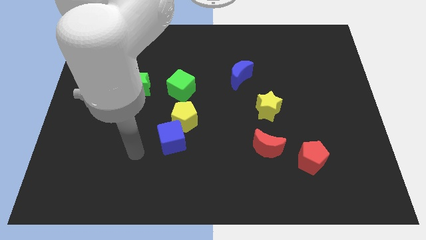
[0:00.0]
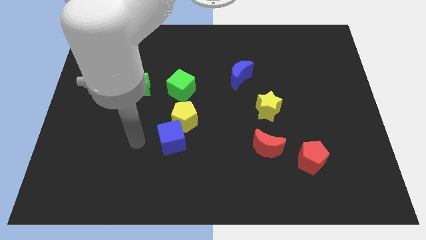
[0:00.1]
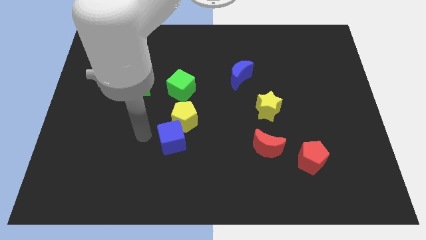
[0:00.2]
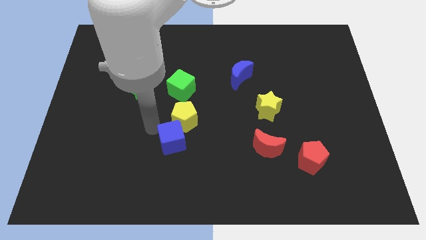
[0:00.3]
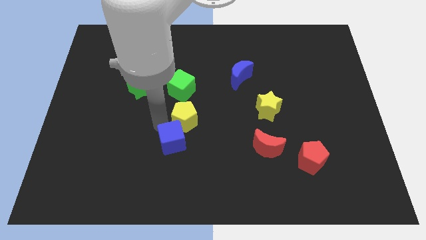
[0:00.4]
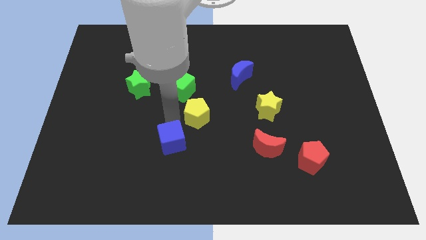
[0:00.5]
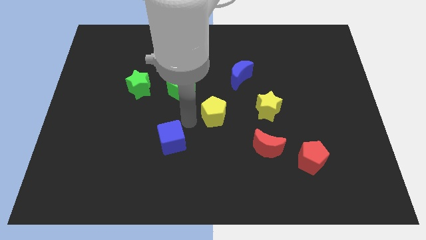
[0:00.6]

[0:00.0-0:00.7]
move the blue cube away from the yellow pentagon

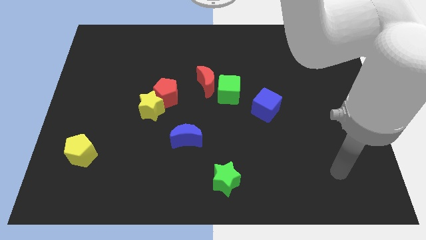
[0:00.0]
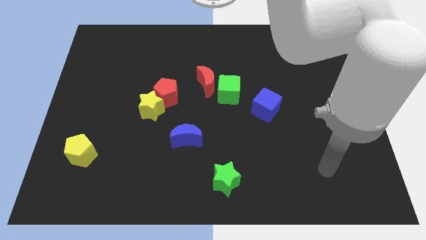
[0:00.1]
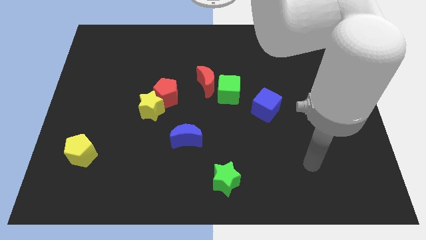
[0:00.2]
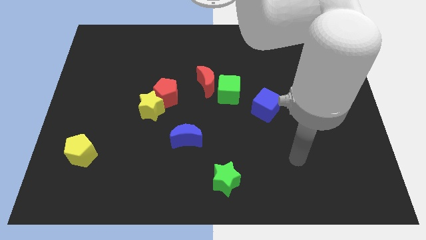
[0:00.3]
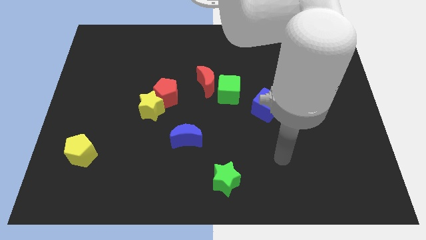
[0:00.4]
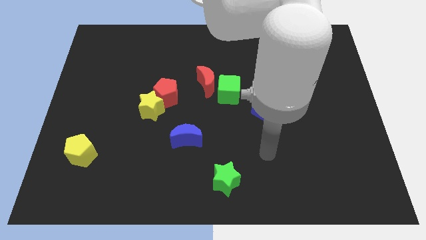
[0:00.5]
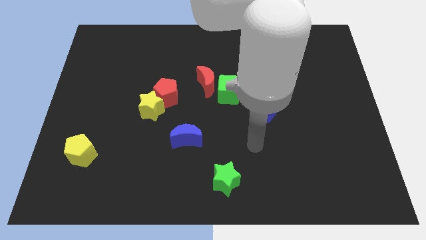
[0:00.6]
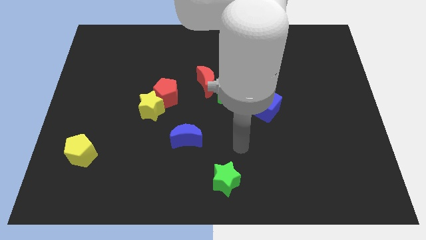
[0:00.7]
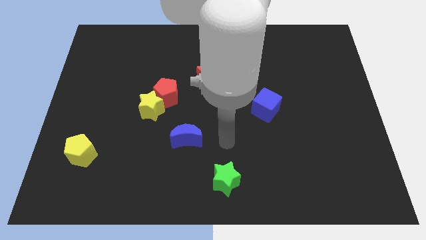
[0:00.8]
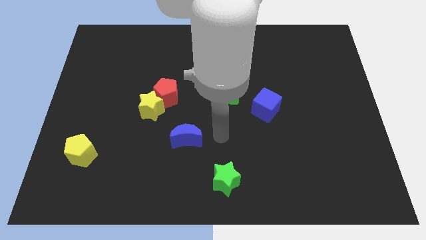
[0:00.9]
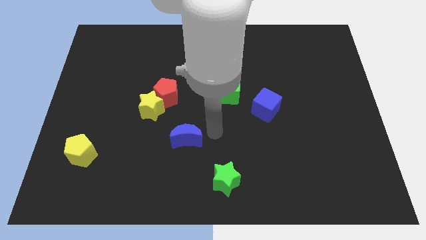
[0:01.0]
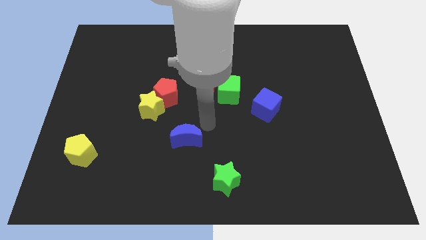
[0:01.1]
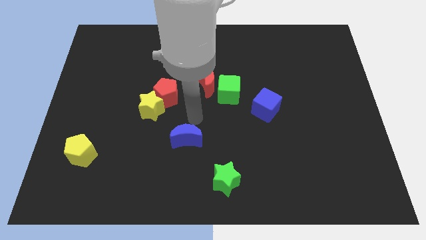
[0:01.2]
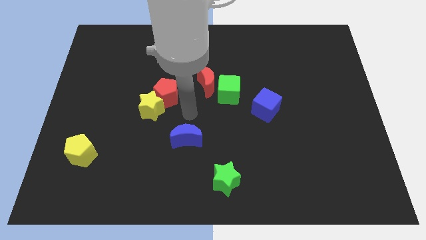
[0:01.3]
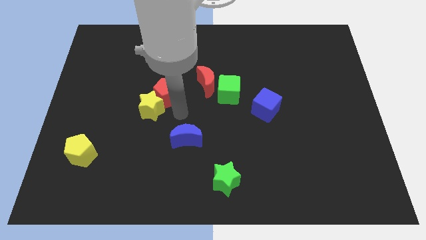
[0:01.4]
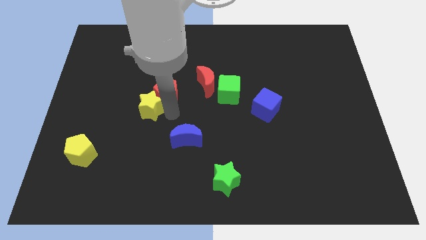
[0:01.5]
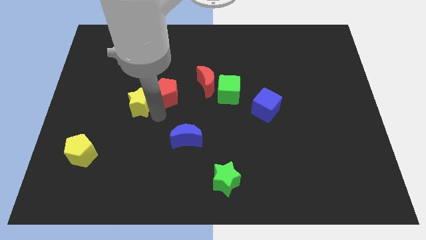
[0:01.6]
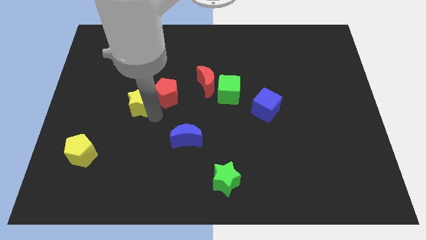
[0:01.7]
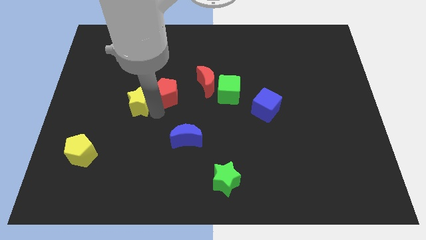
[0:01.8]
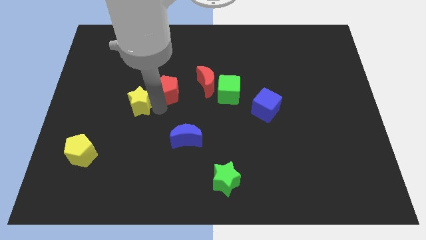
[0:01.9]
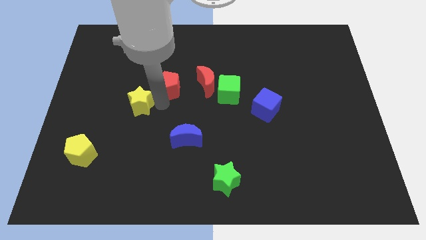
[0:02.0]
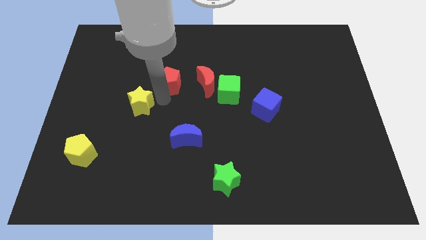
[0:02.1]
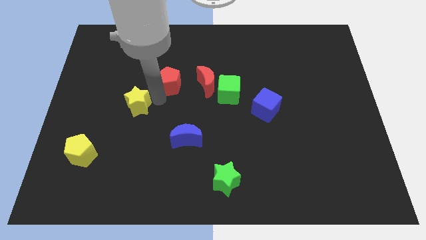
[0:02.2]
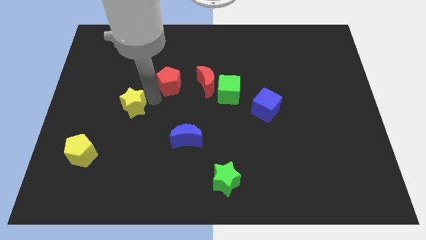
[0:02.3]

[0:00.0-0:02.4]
pull the red pentagon apart from the yellow star

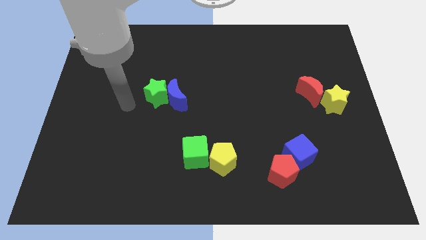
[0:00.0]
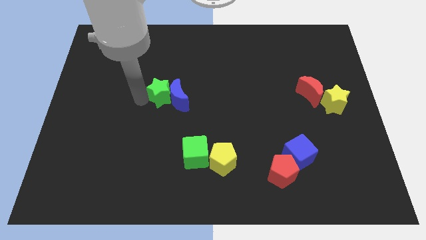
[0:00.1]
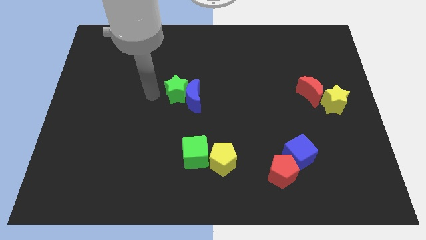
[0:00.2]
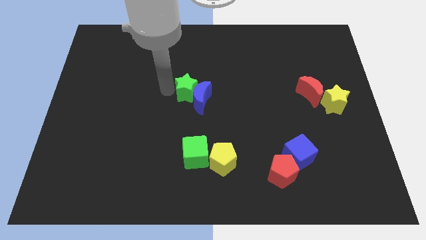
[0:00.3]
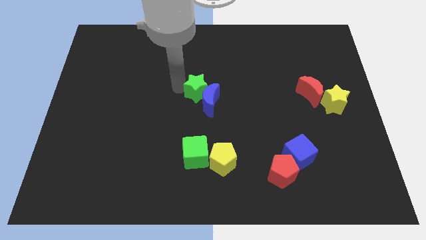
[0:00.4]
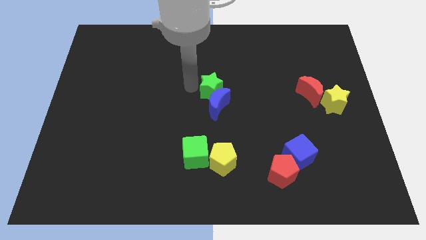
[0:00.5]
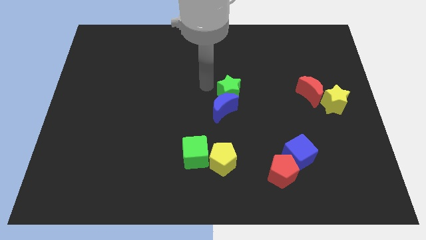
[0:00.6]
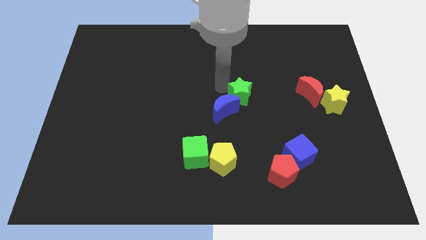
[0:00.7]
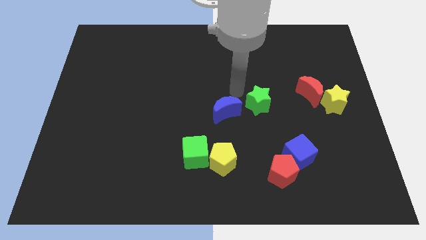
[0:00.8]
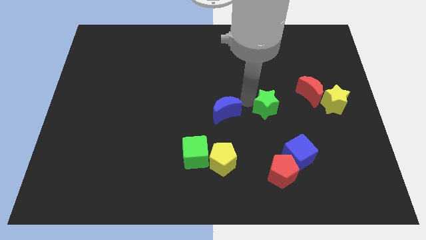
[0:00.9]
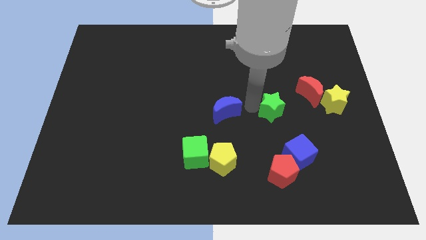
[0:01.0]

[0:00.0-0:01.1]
pull the blue moon apart from the green star

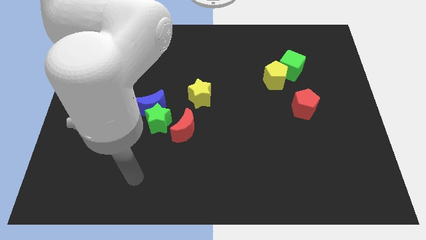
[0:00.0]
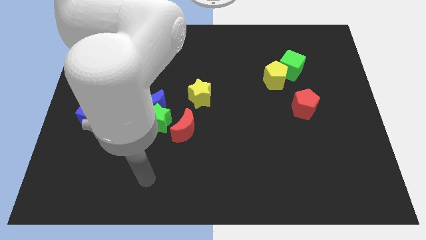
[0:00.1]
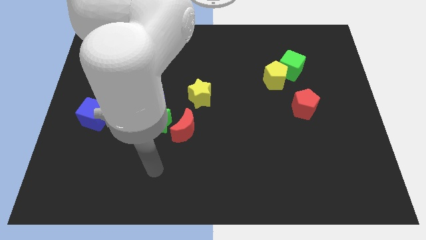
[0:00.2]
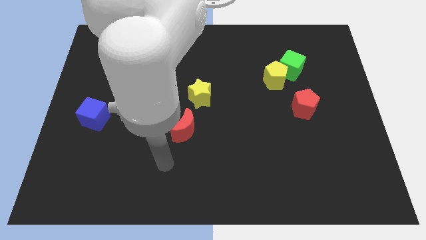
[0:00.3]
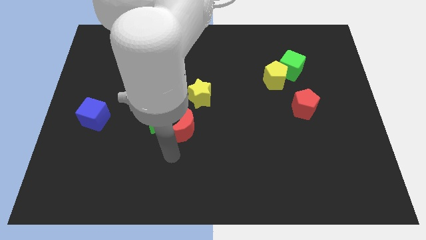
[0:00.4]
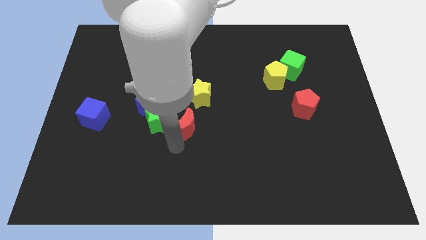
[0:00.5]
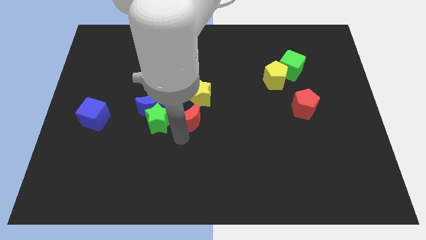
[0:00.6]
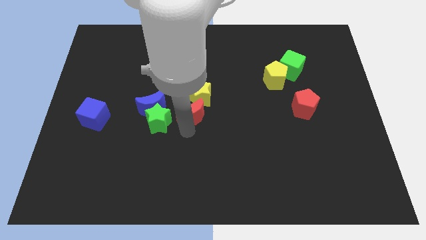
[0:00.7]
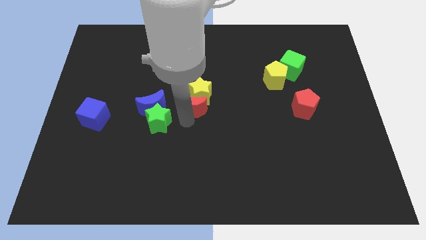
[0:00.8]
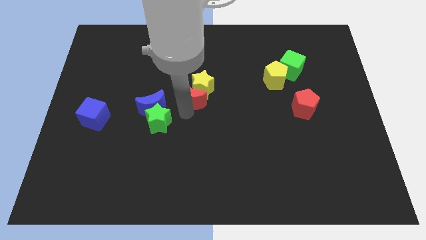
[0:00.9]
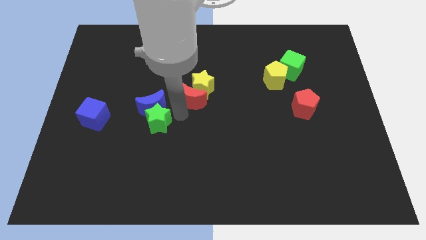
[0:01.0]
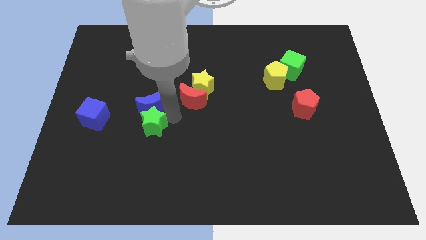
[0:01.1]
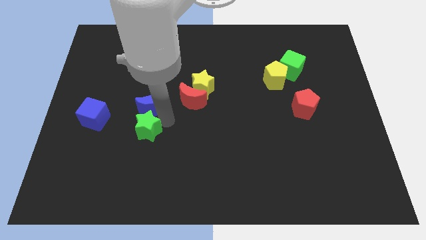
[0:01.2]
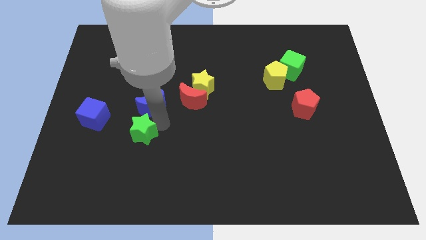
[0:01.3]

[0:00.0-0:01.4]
pull the green star apart from the blue moon and red moon

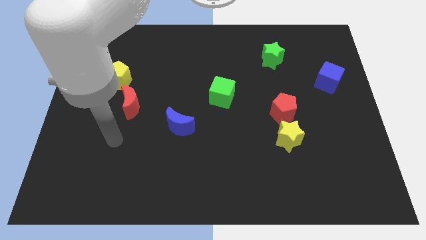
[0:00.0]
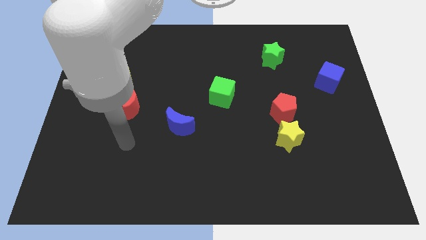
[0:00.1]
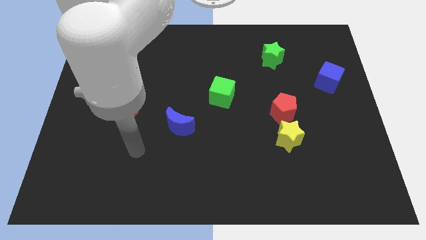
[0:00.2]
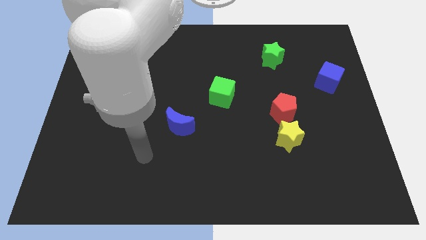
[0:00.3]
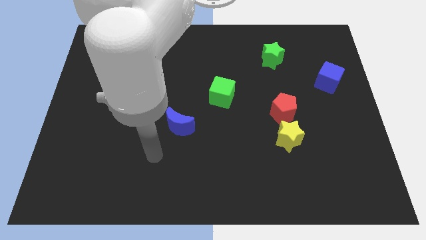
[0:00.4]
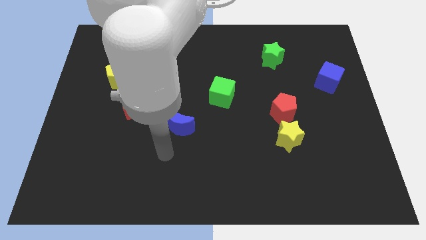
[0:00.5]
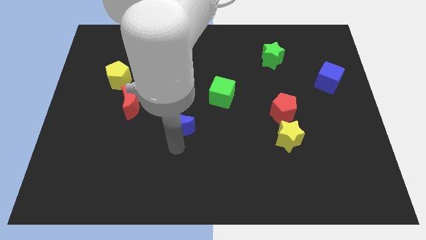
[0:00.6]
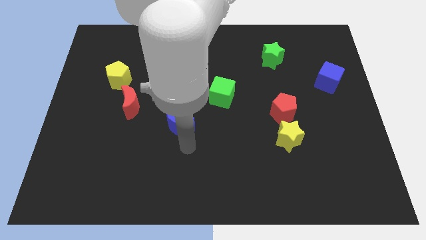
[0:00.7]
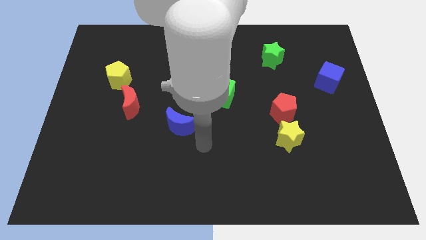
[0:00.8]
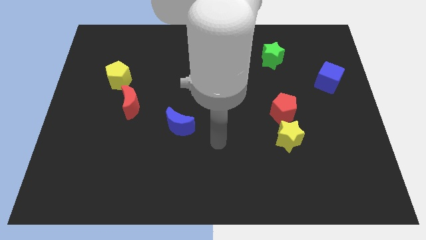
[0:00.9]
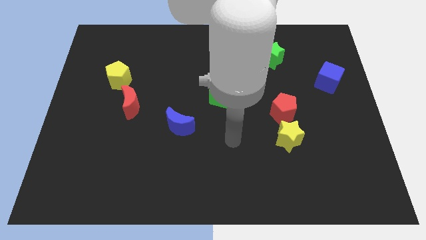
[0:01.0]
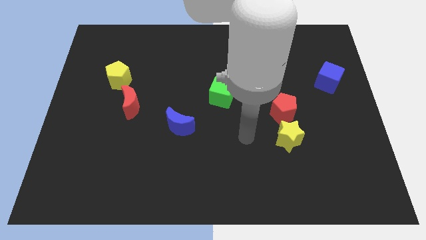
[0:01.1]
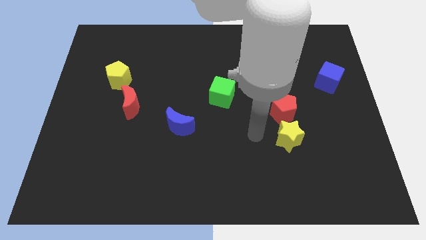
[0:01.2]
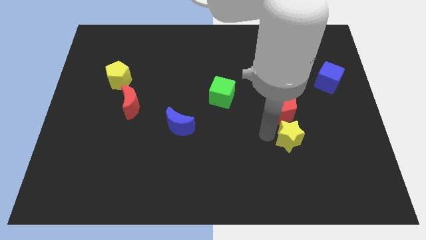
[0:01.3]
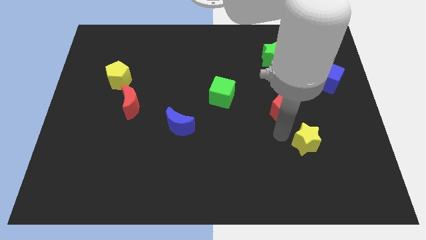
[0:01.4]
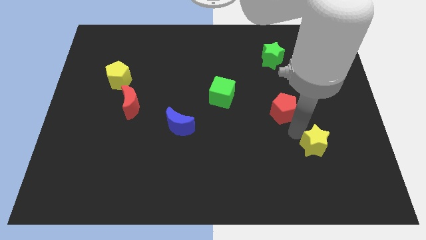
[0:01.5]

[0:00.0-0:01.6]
separate the red pentagon from the yellow star

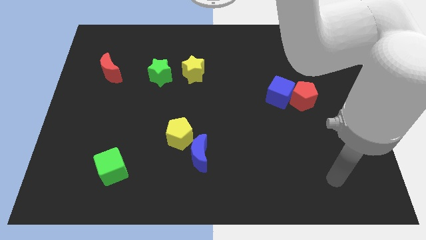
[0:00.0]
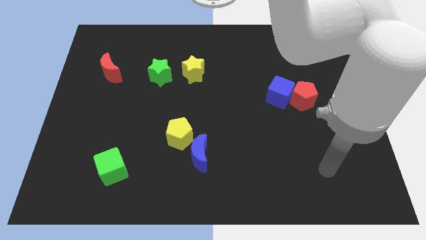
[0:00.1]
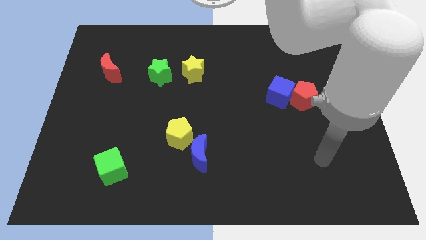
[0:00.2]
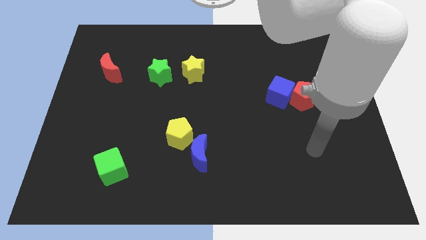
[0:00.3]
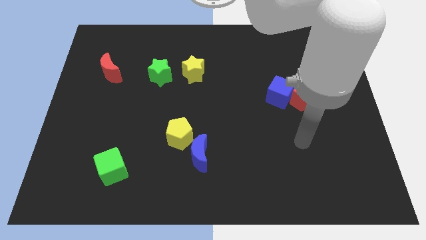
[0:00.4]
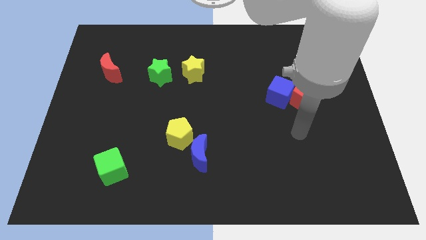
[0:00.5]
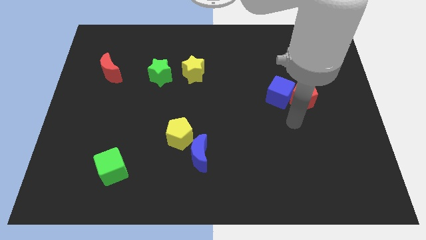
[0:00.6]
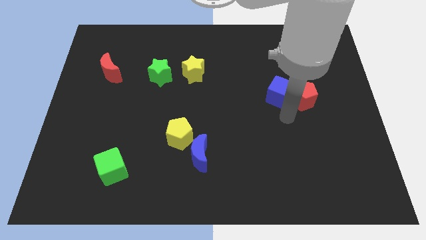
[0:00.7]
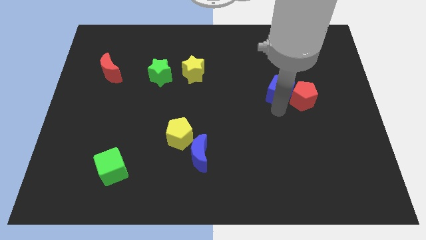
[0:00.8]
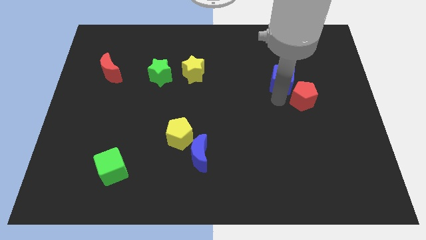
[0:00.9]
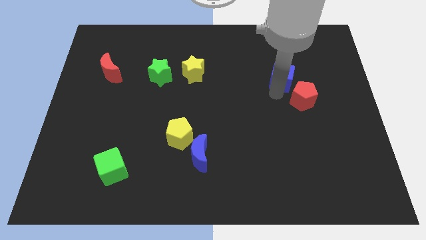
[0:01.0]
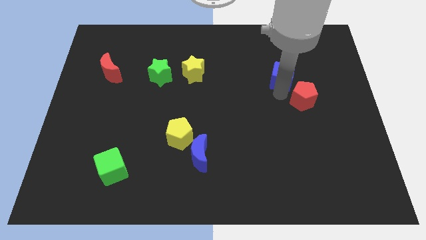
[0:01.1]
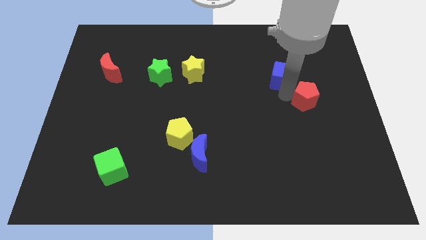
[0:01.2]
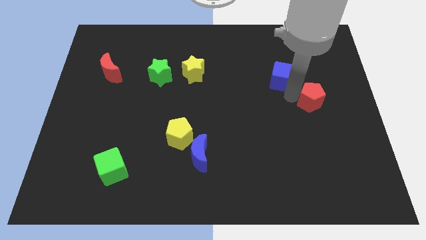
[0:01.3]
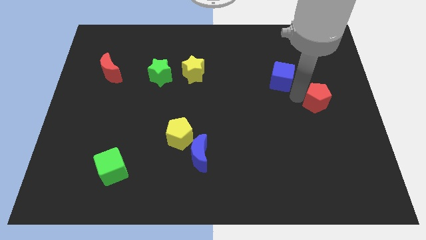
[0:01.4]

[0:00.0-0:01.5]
separate the red pentagon from the blue cube

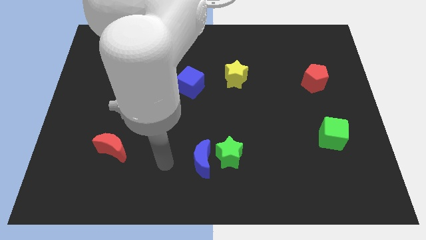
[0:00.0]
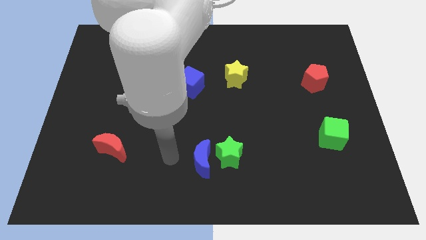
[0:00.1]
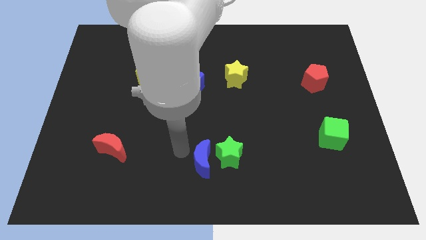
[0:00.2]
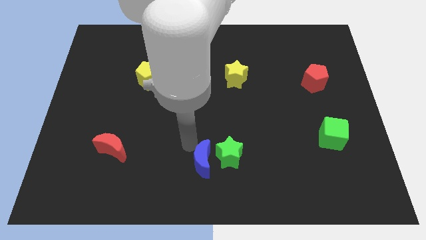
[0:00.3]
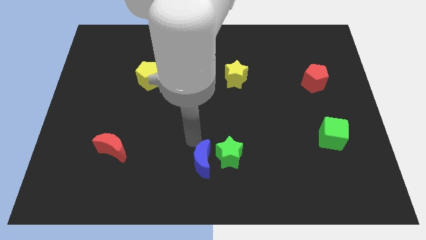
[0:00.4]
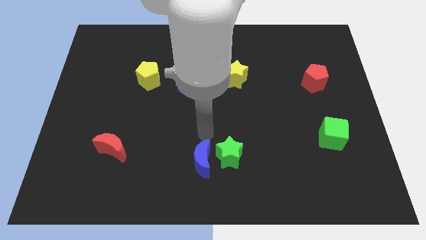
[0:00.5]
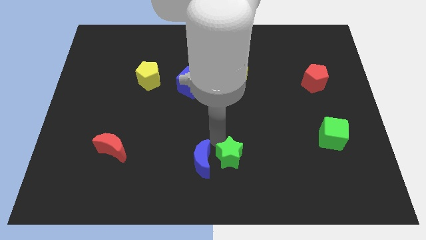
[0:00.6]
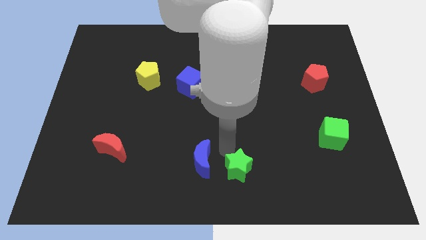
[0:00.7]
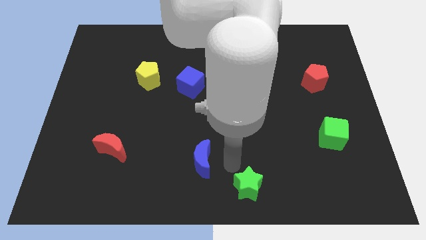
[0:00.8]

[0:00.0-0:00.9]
separate the blue moon from the green star
